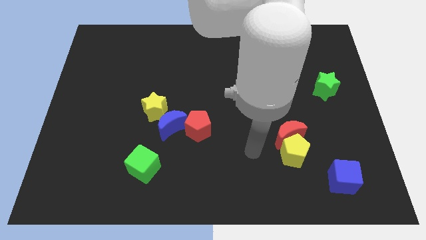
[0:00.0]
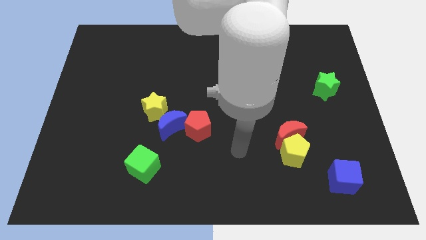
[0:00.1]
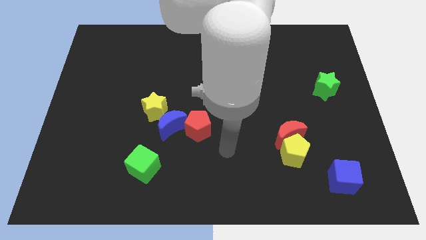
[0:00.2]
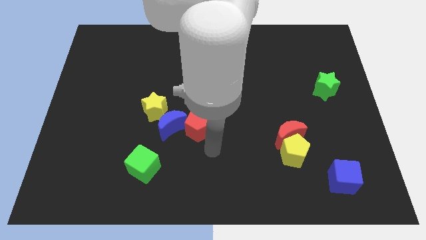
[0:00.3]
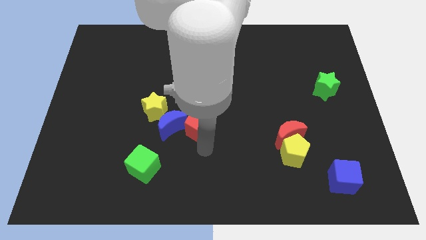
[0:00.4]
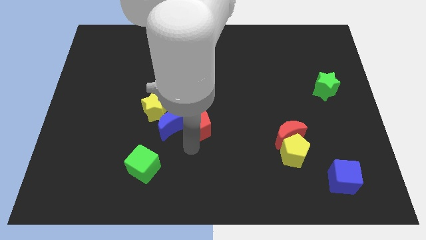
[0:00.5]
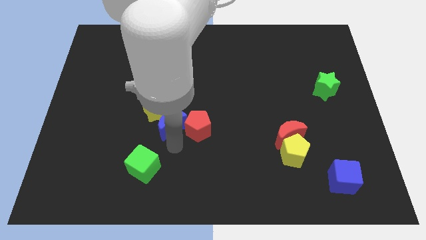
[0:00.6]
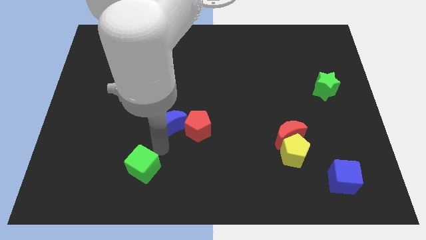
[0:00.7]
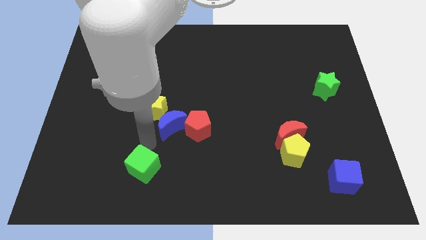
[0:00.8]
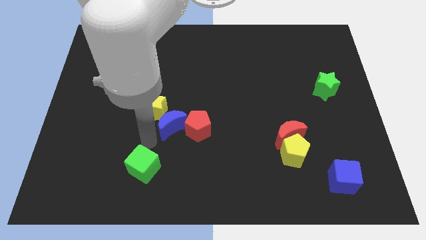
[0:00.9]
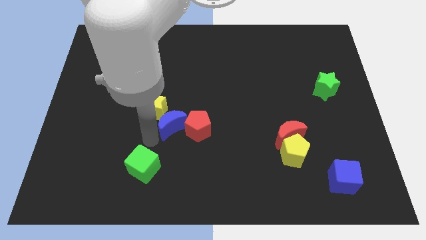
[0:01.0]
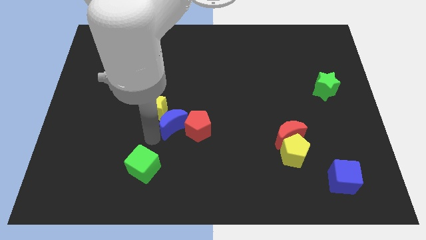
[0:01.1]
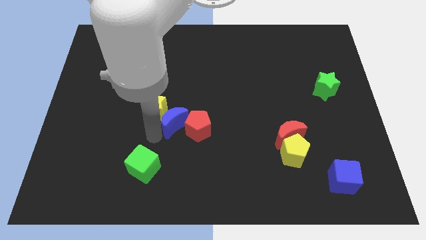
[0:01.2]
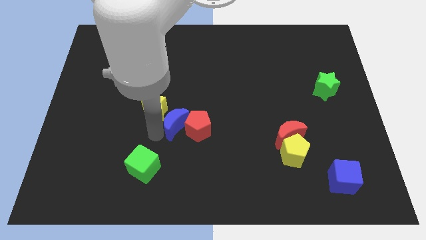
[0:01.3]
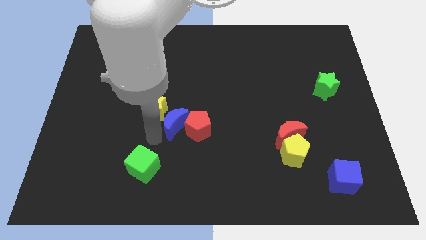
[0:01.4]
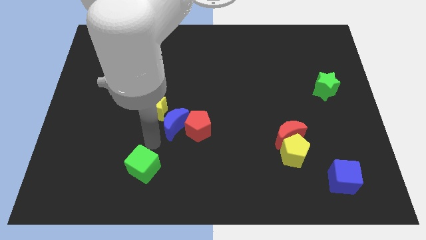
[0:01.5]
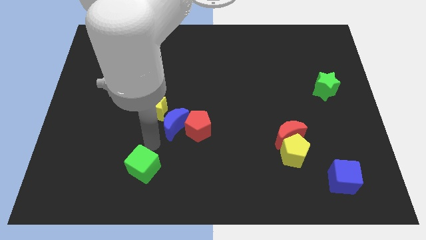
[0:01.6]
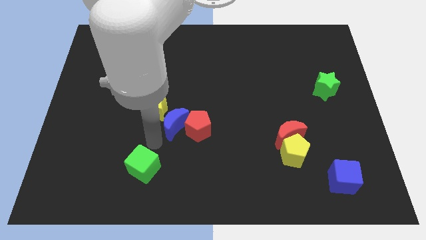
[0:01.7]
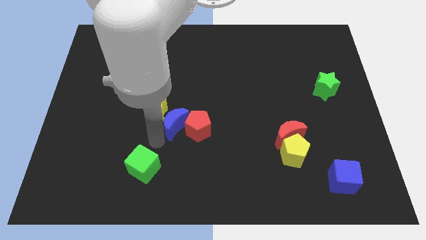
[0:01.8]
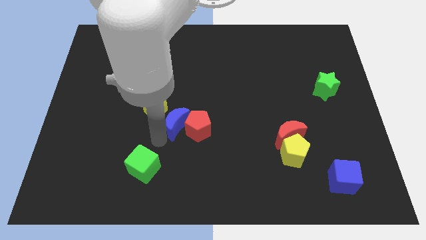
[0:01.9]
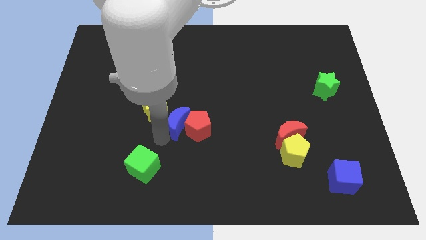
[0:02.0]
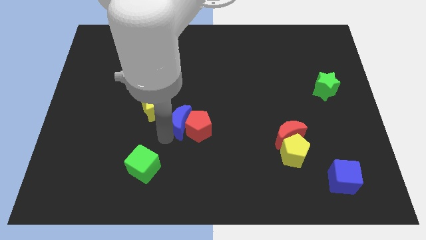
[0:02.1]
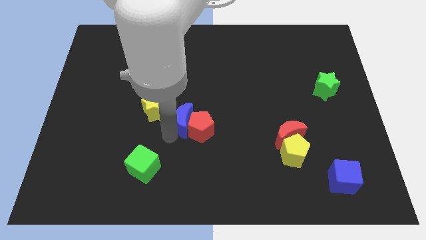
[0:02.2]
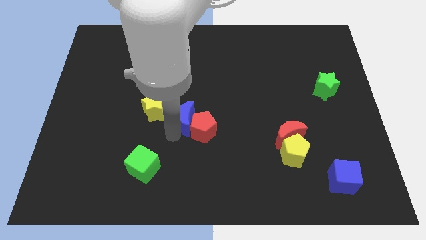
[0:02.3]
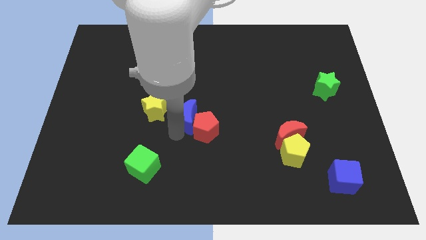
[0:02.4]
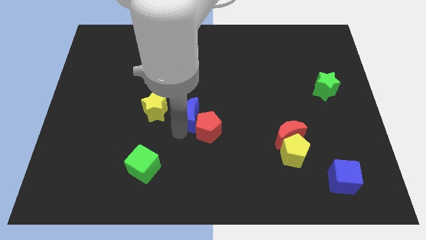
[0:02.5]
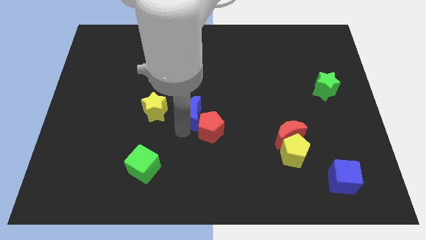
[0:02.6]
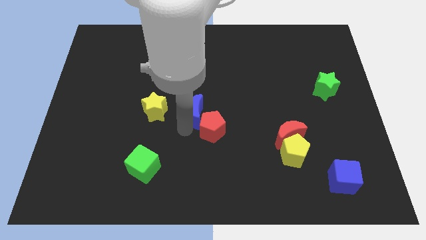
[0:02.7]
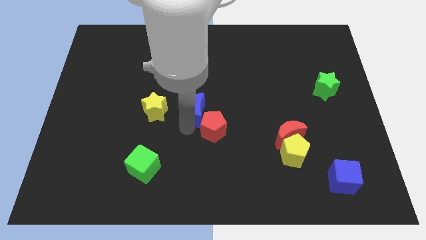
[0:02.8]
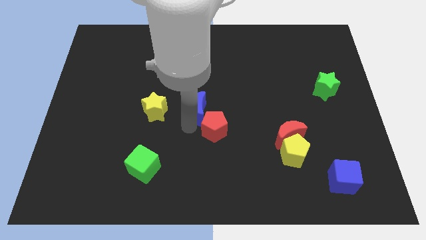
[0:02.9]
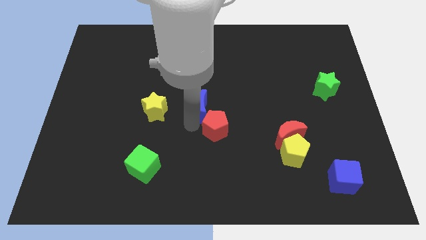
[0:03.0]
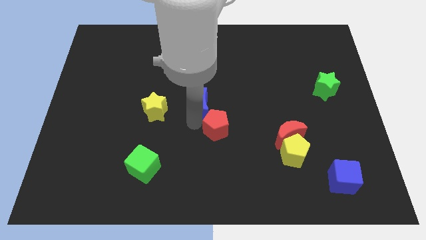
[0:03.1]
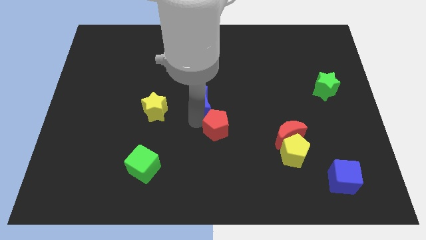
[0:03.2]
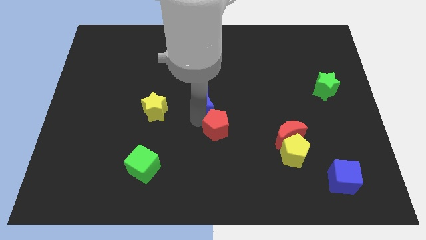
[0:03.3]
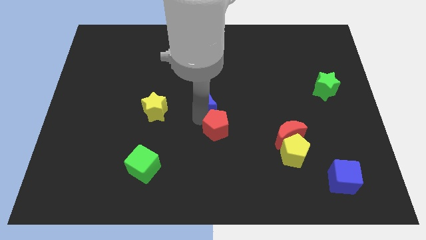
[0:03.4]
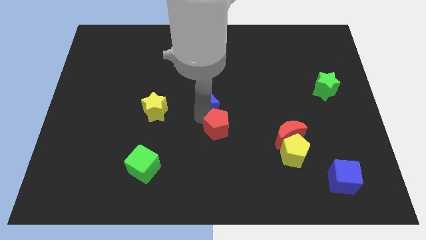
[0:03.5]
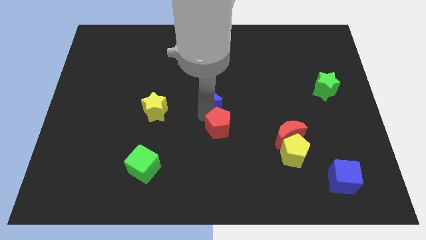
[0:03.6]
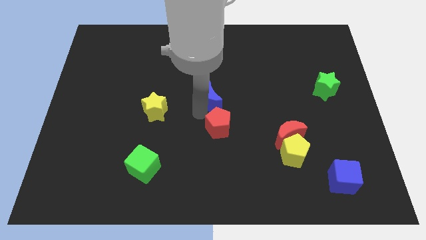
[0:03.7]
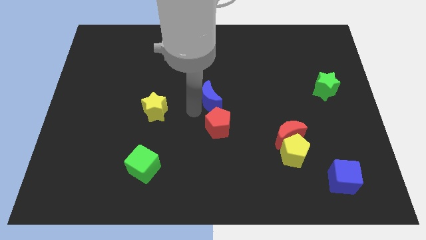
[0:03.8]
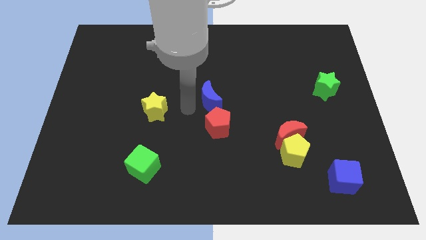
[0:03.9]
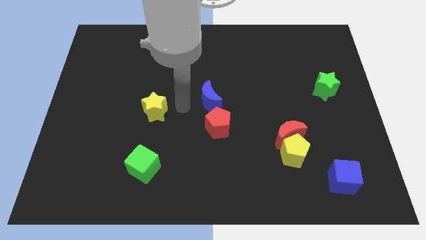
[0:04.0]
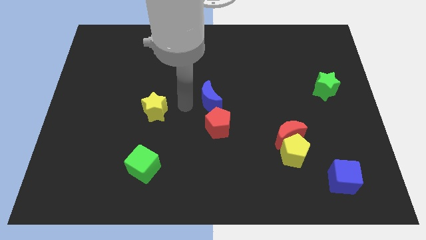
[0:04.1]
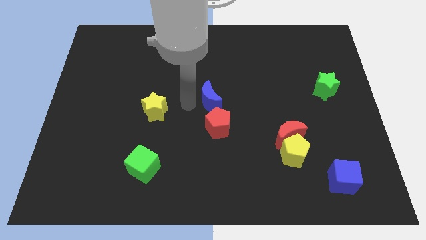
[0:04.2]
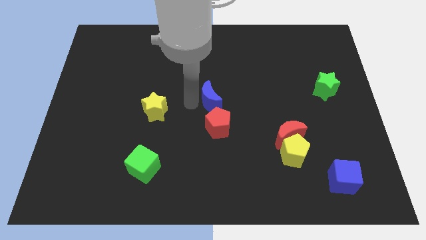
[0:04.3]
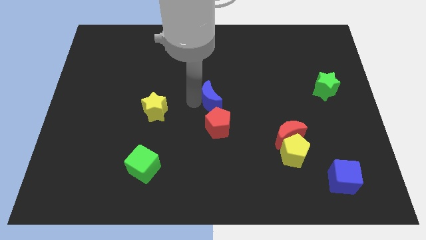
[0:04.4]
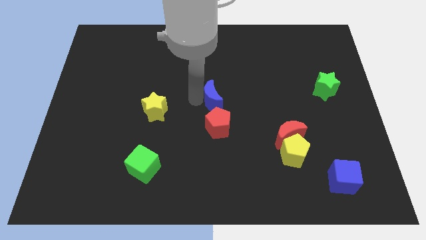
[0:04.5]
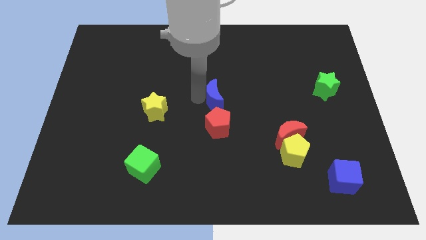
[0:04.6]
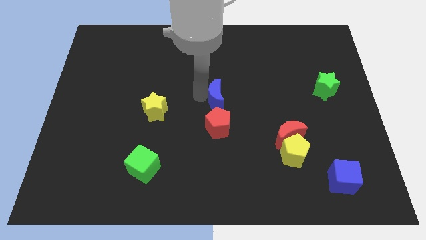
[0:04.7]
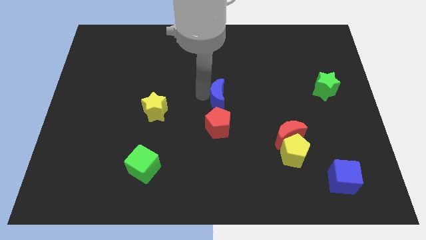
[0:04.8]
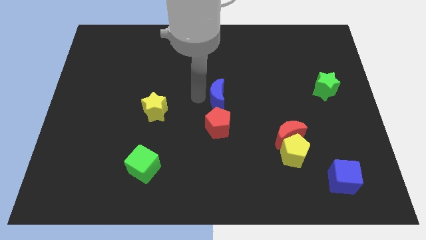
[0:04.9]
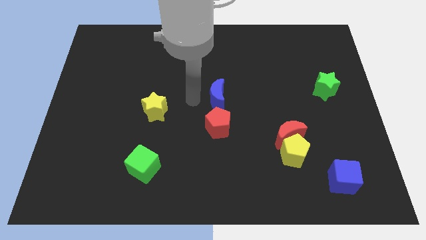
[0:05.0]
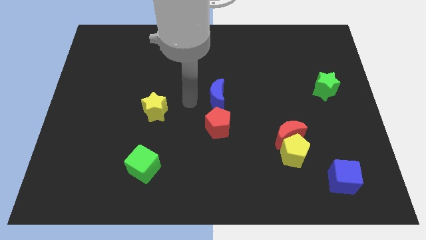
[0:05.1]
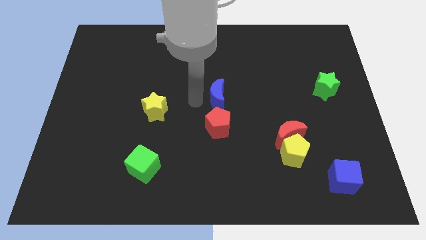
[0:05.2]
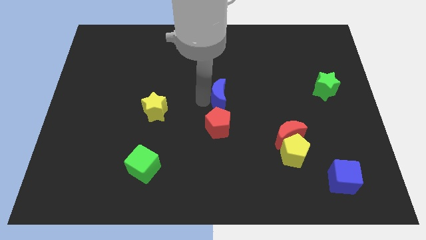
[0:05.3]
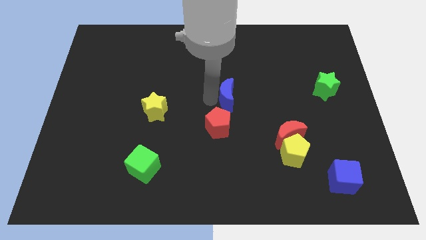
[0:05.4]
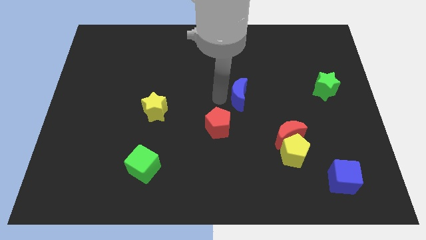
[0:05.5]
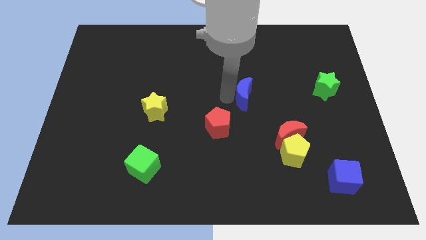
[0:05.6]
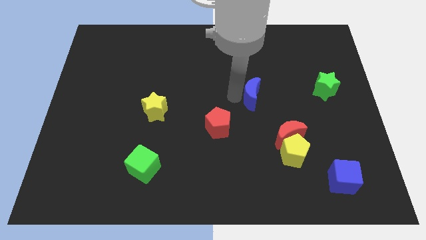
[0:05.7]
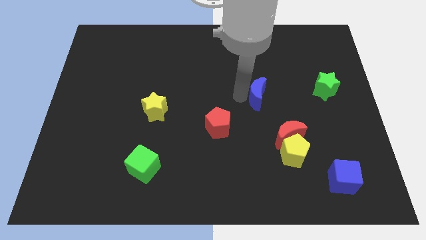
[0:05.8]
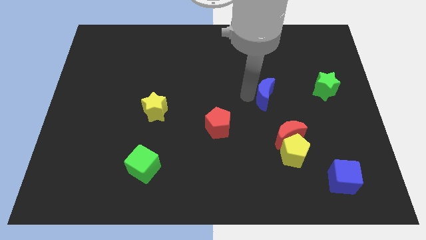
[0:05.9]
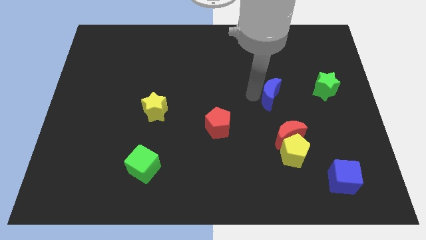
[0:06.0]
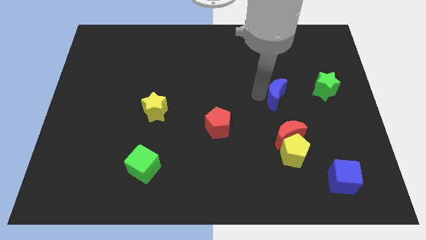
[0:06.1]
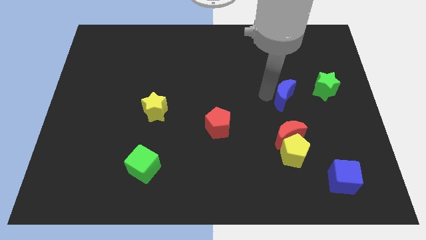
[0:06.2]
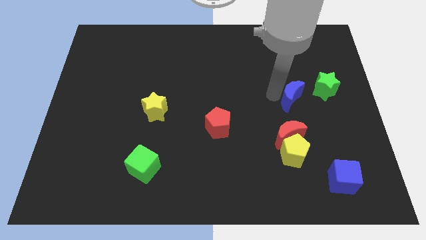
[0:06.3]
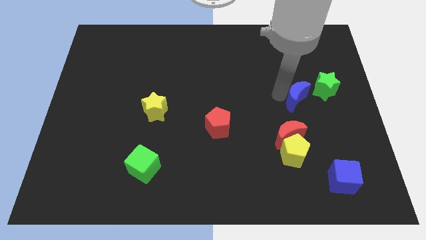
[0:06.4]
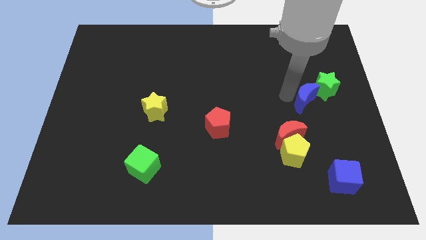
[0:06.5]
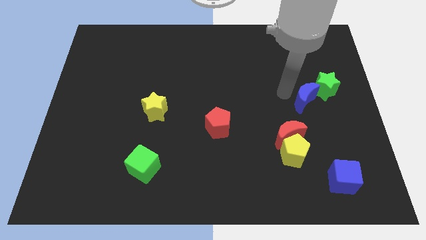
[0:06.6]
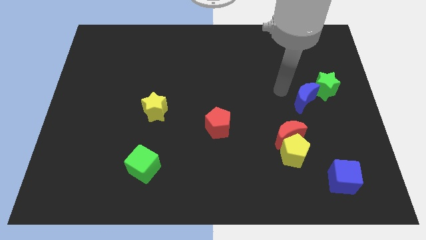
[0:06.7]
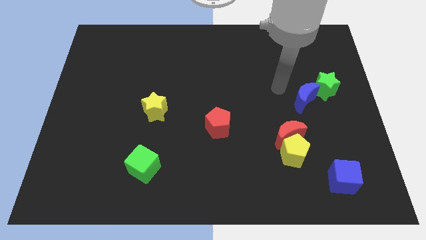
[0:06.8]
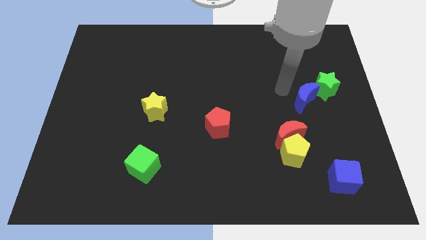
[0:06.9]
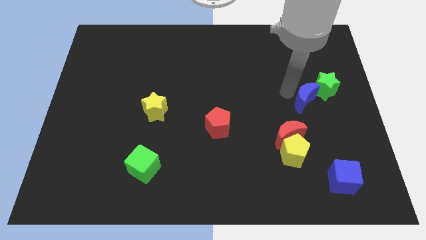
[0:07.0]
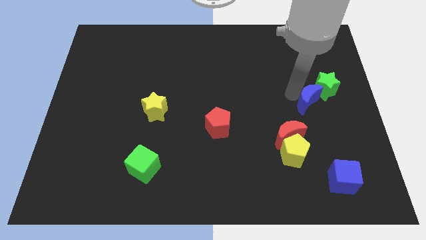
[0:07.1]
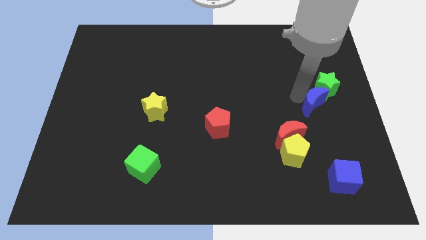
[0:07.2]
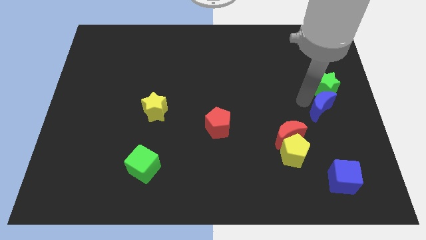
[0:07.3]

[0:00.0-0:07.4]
push the blue moon to the center right
